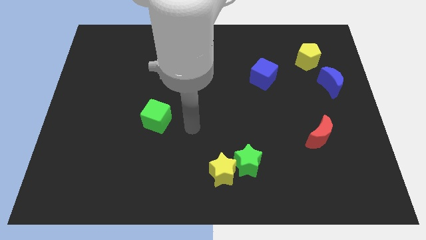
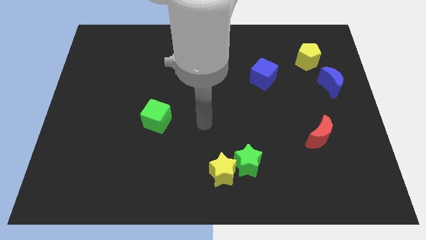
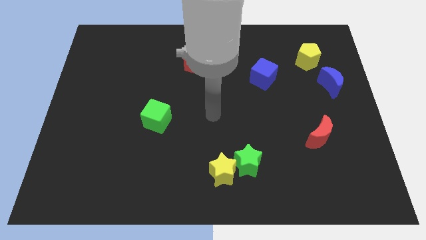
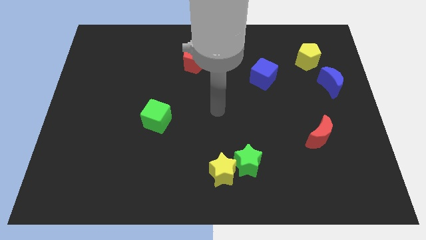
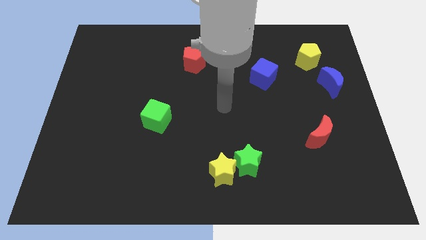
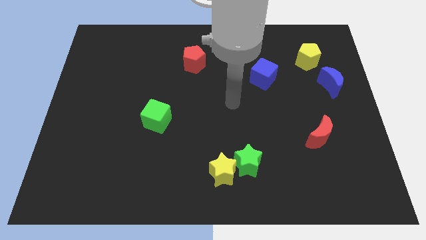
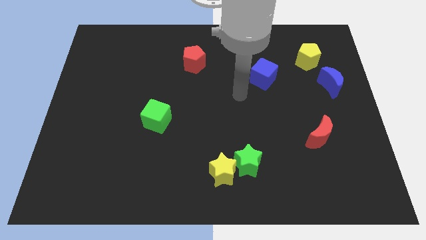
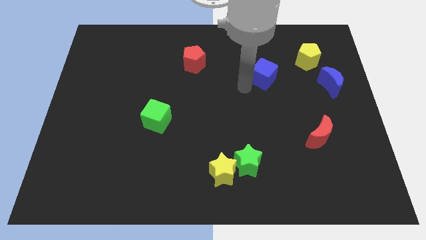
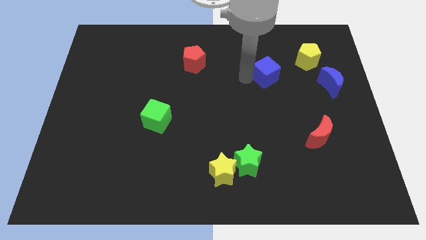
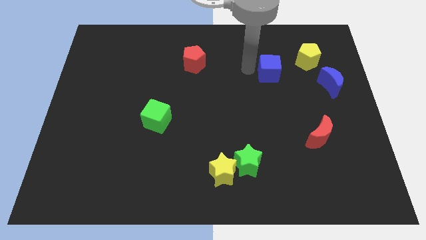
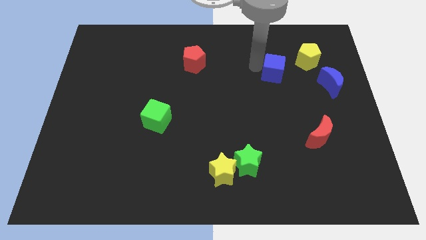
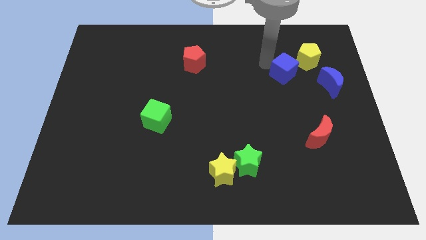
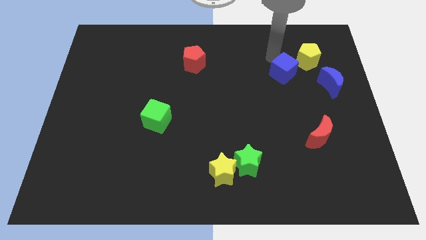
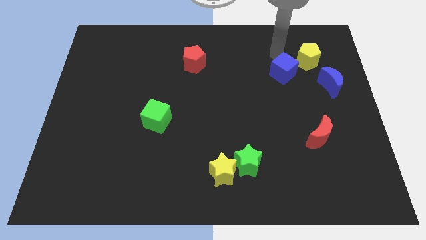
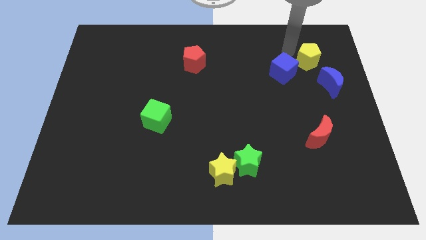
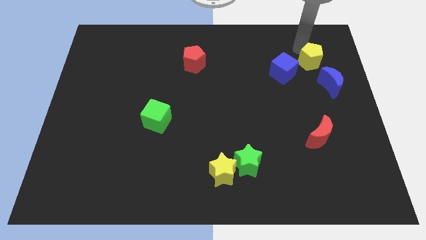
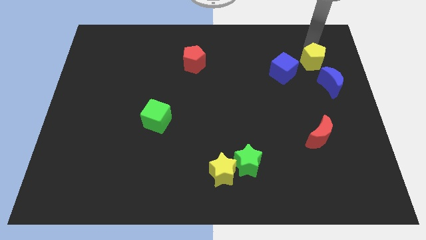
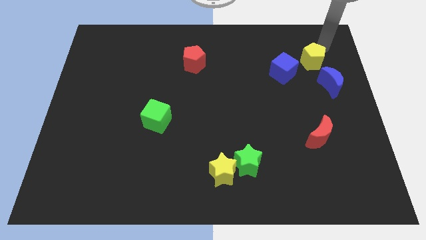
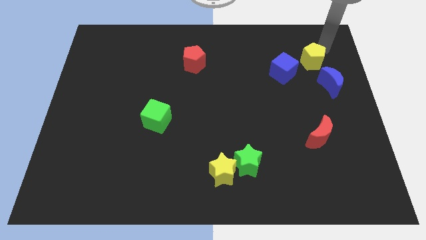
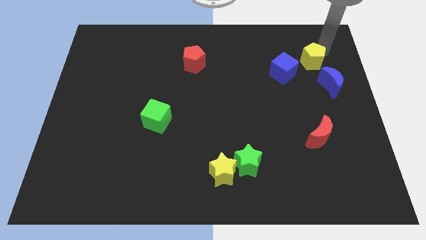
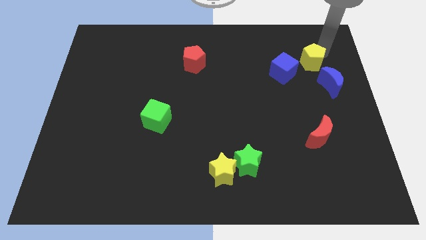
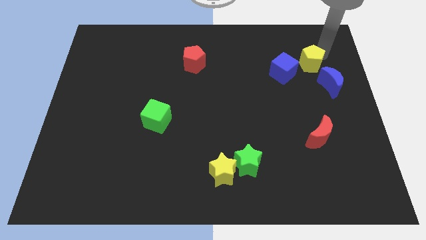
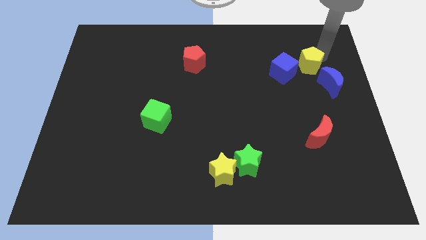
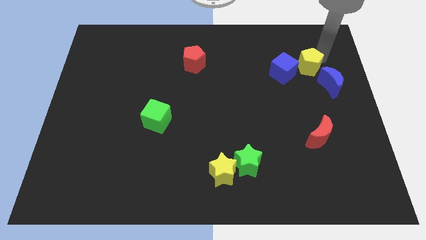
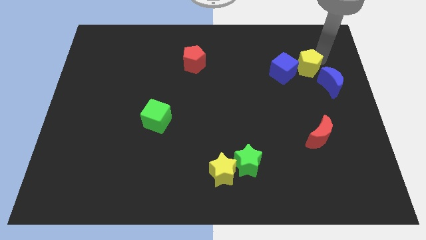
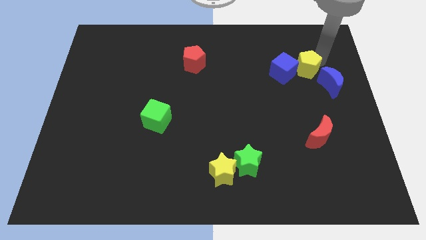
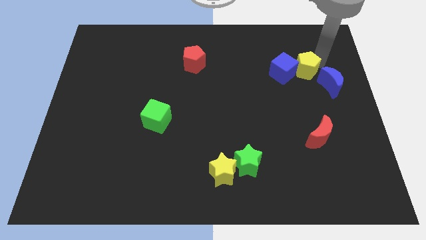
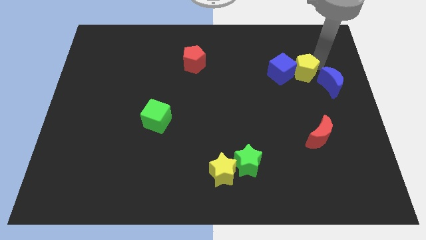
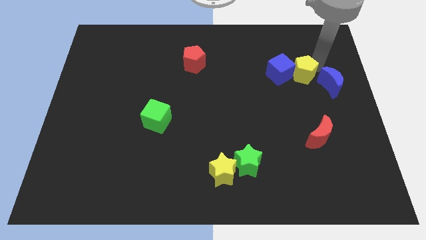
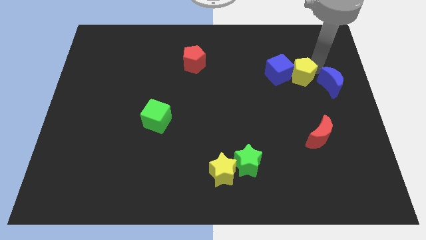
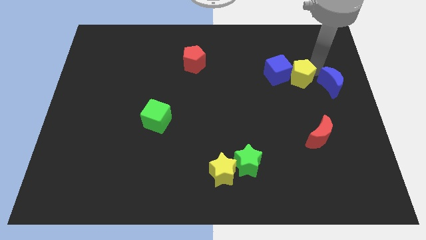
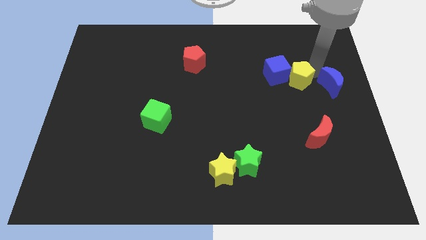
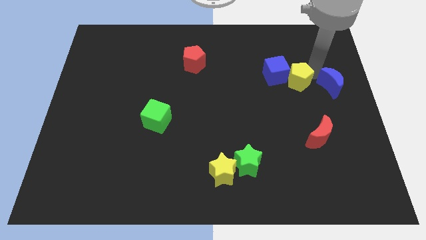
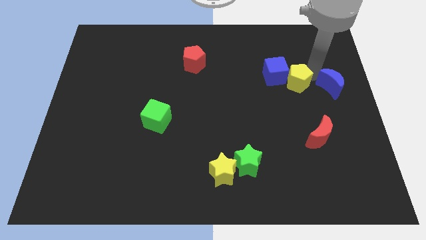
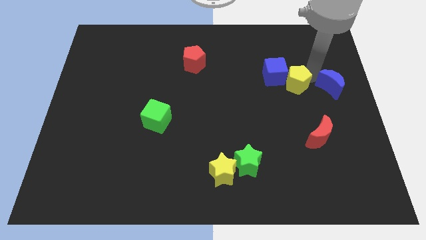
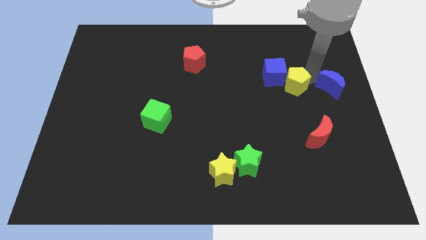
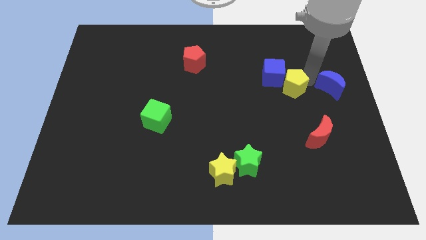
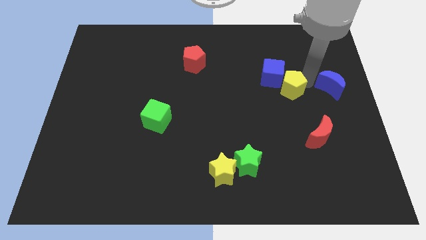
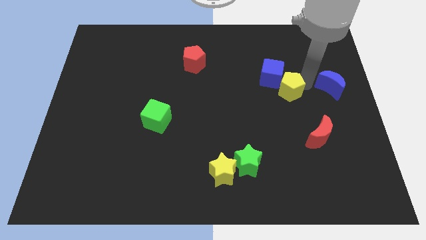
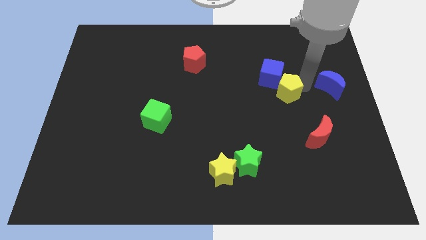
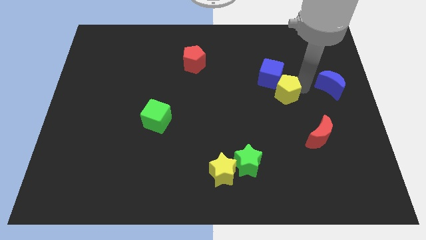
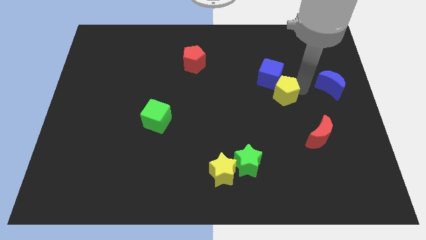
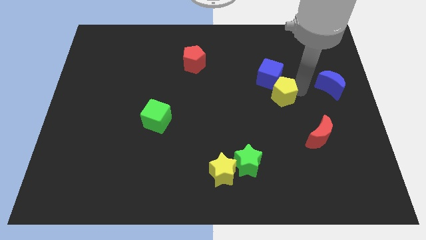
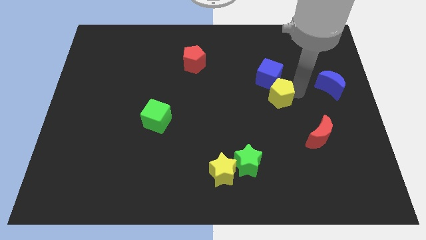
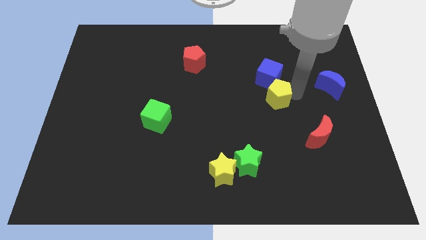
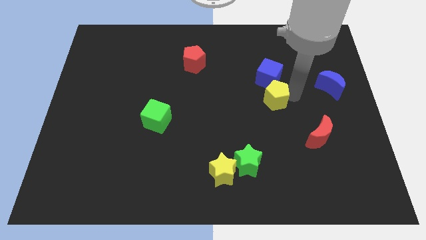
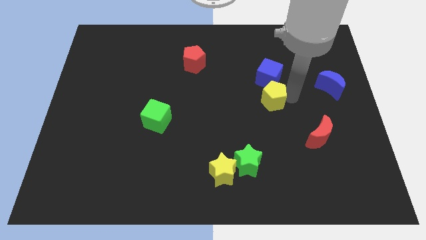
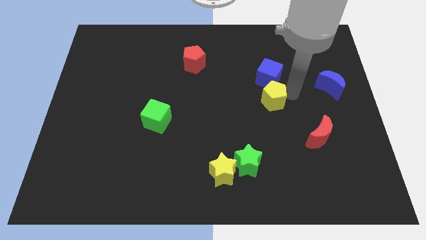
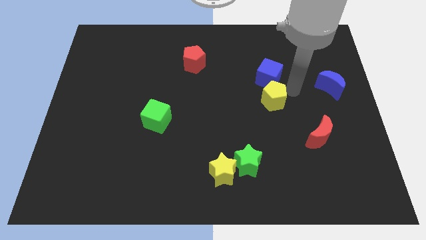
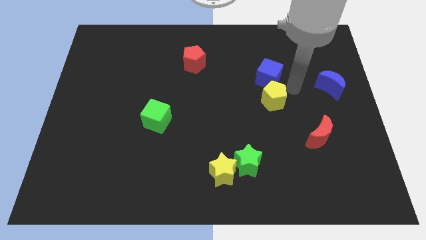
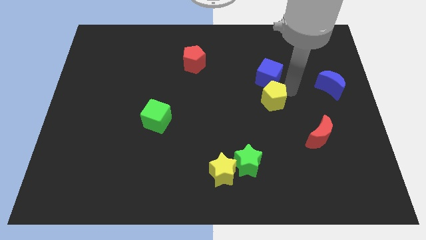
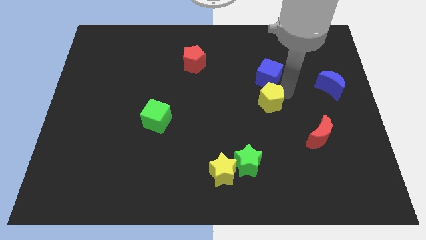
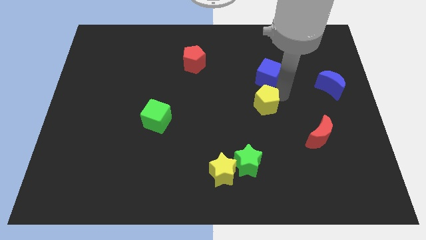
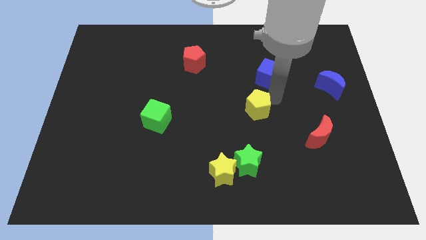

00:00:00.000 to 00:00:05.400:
push the yellow pentagon downwards and left diagonally

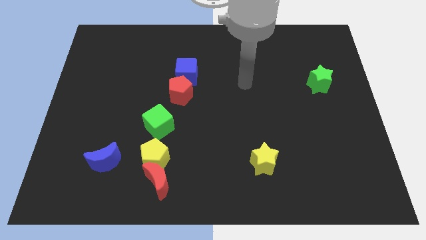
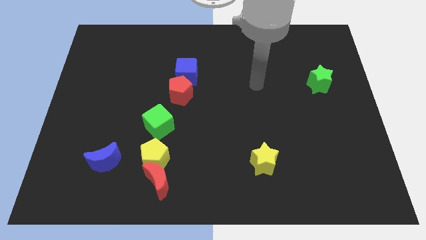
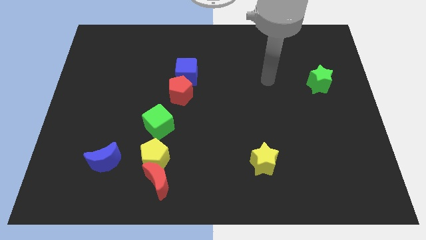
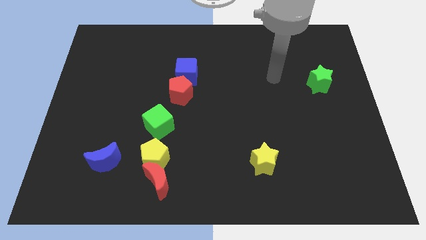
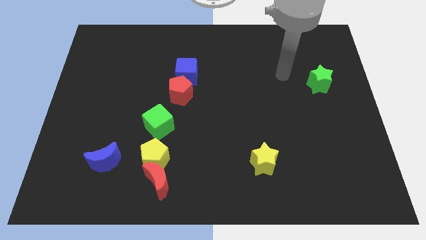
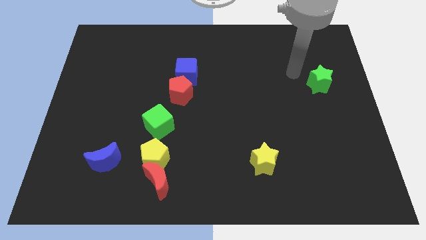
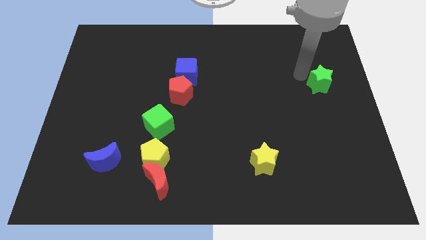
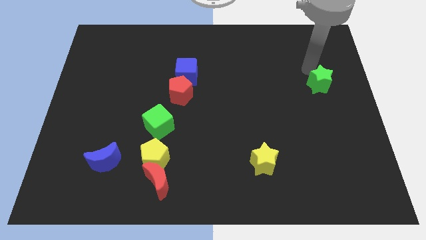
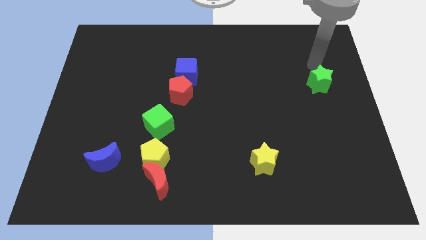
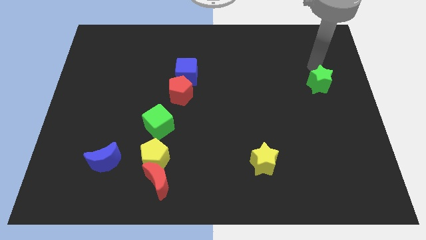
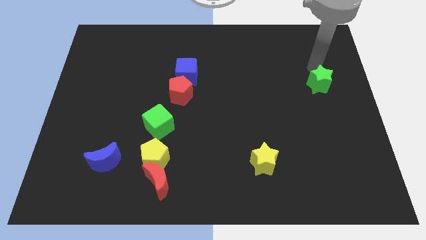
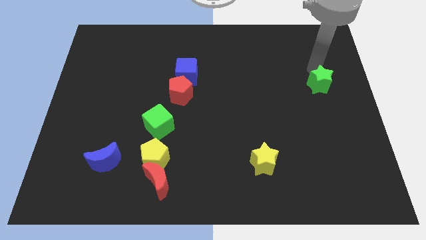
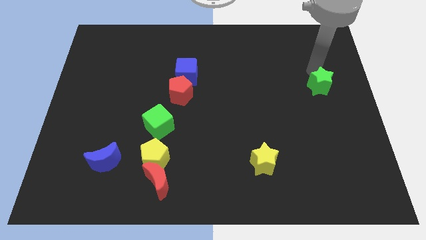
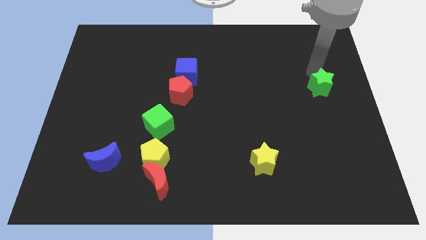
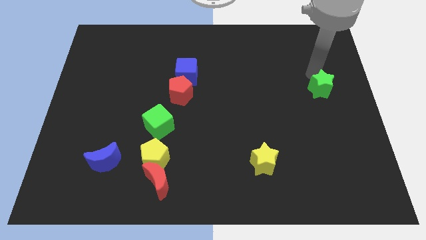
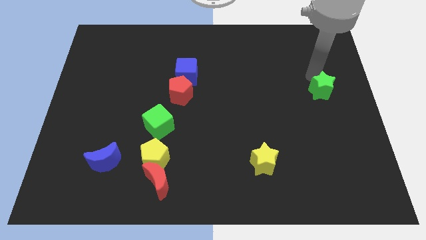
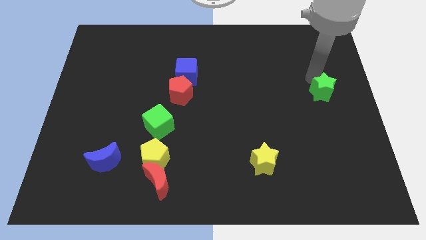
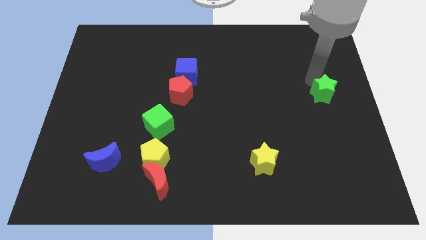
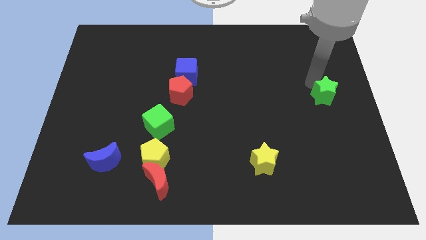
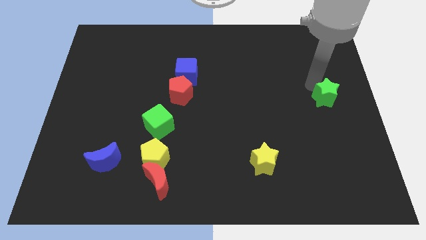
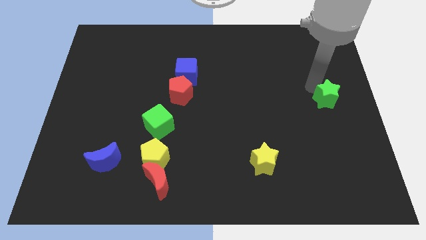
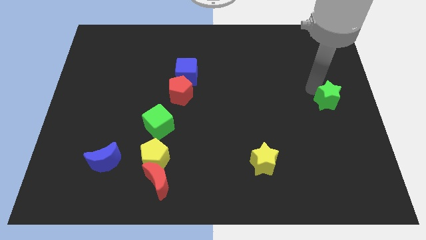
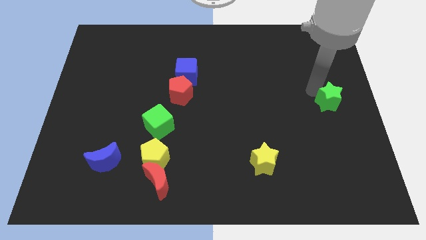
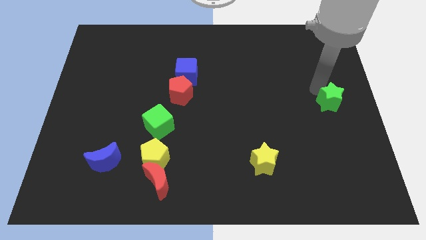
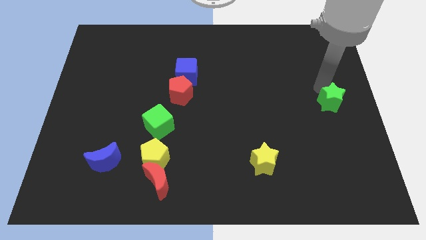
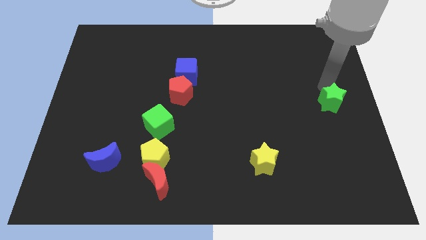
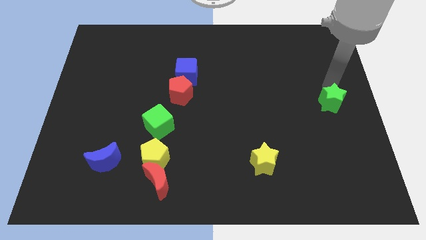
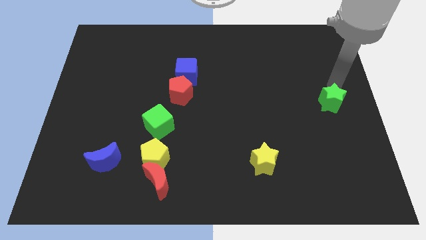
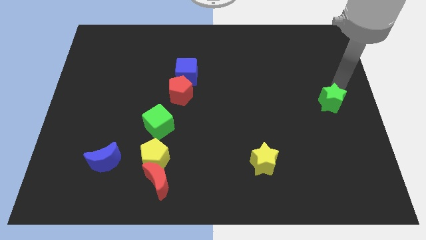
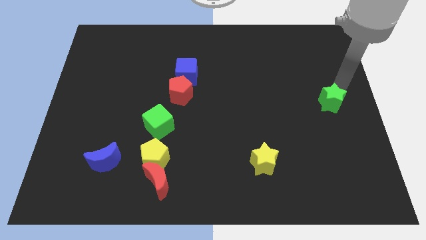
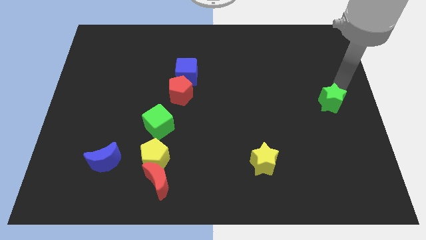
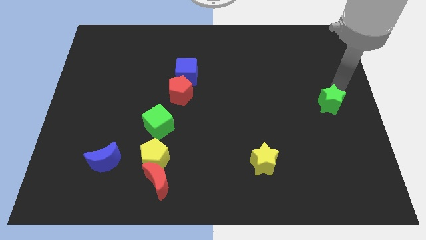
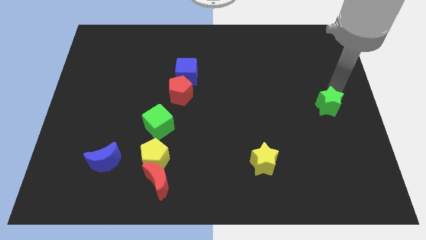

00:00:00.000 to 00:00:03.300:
move the green star downwards a little bit
